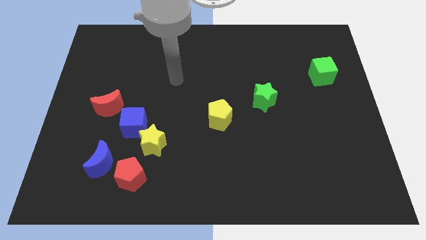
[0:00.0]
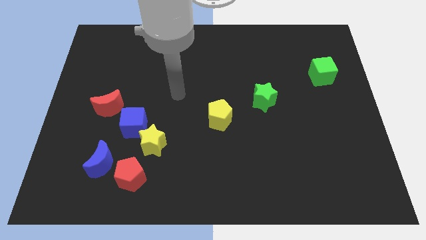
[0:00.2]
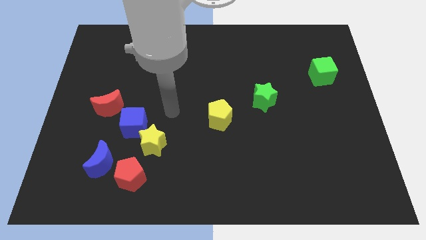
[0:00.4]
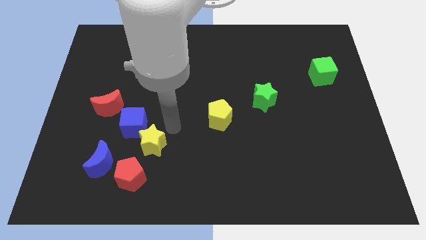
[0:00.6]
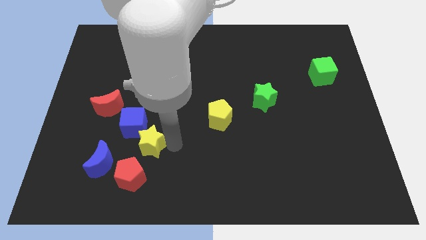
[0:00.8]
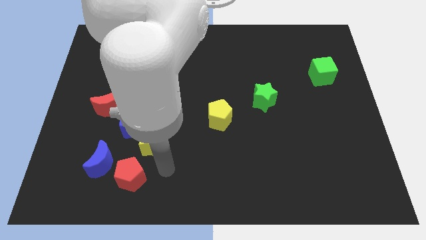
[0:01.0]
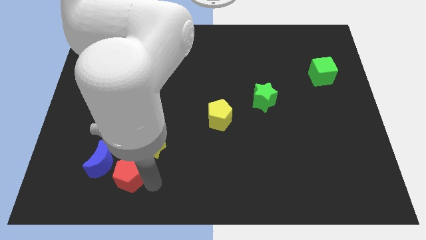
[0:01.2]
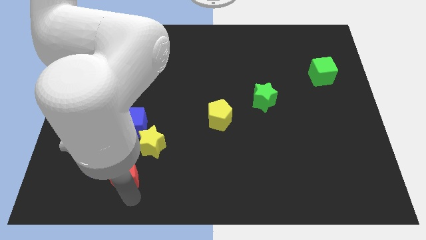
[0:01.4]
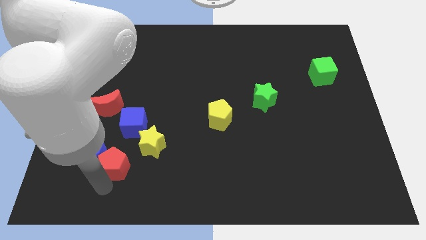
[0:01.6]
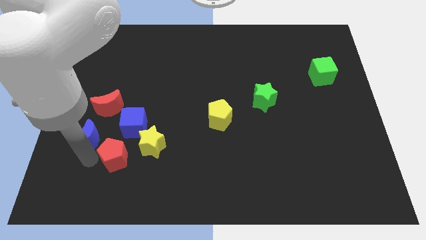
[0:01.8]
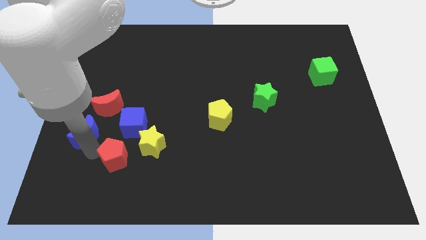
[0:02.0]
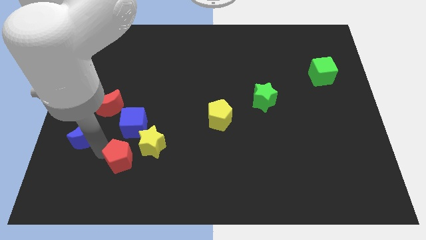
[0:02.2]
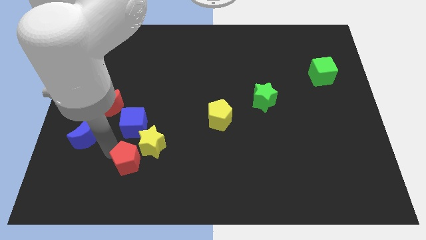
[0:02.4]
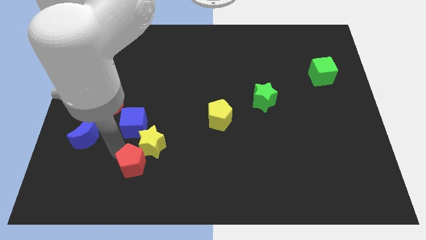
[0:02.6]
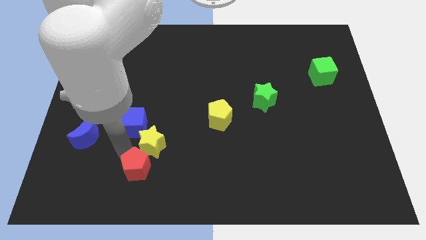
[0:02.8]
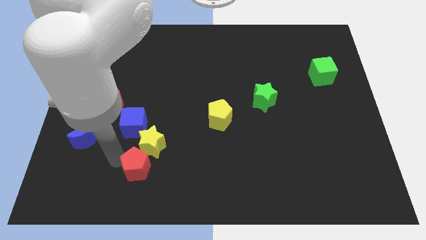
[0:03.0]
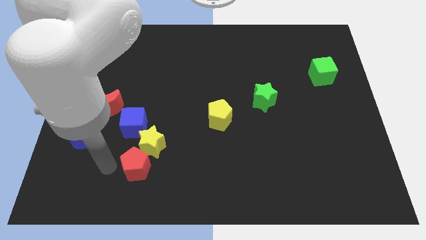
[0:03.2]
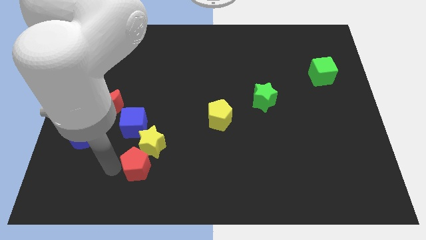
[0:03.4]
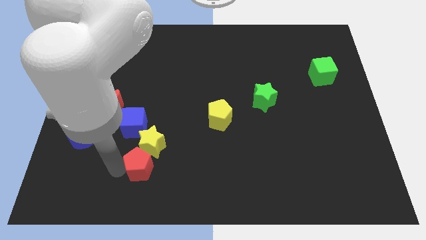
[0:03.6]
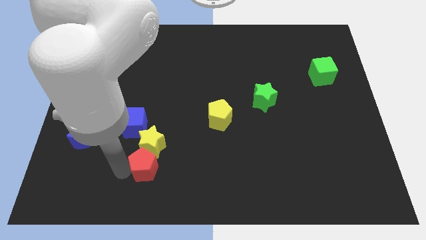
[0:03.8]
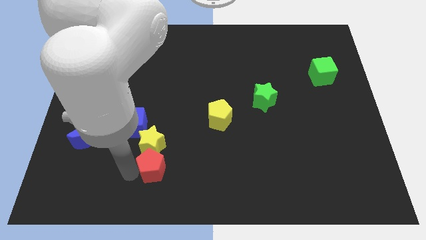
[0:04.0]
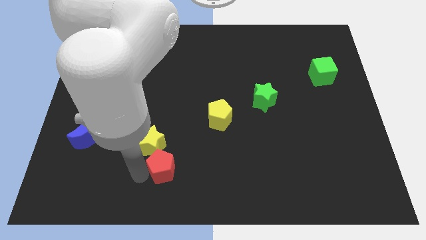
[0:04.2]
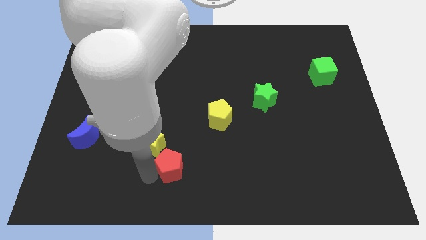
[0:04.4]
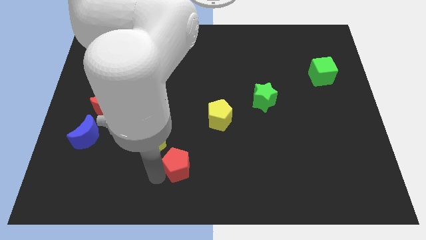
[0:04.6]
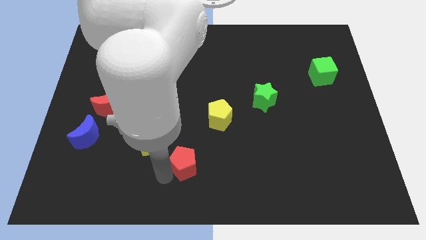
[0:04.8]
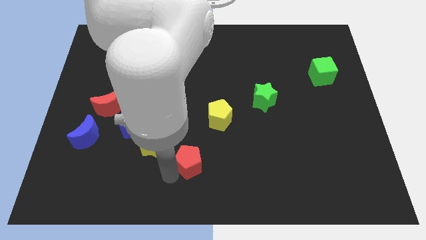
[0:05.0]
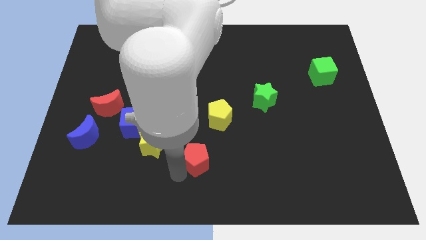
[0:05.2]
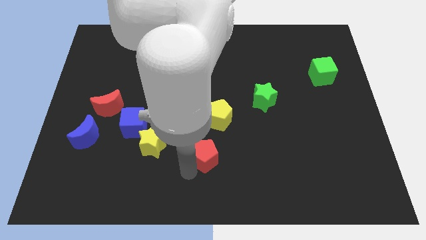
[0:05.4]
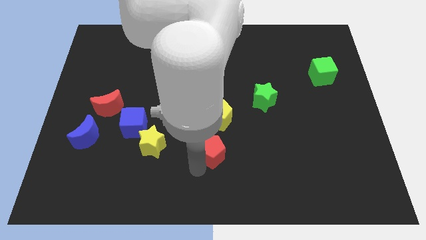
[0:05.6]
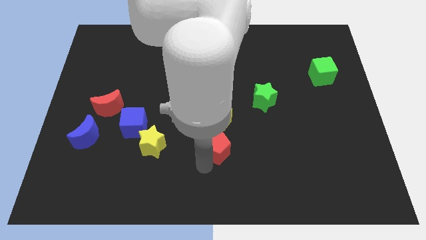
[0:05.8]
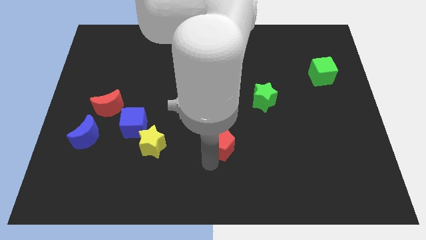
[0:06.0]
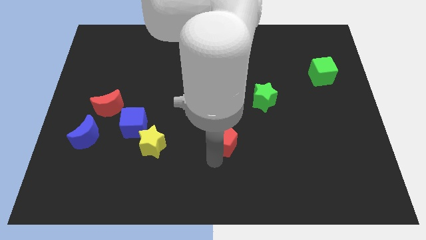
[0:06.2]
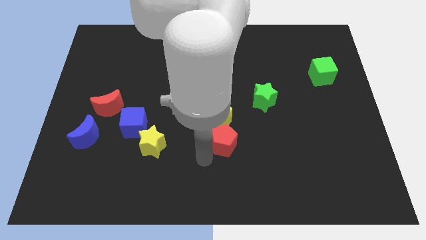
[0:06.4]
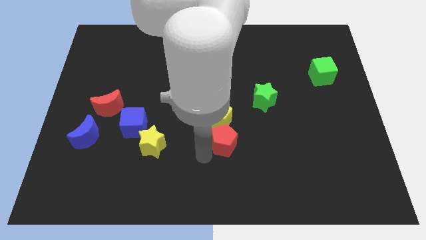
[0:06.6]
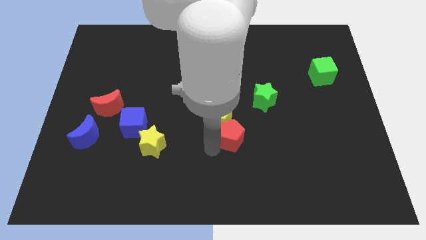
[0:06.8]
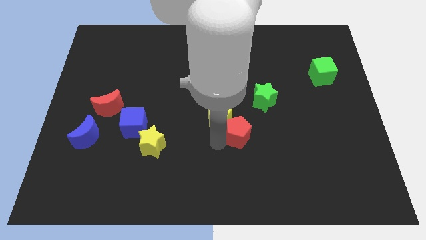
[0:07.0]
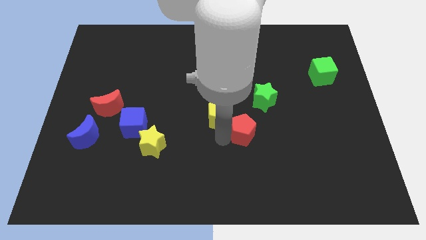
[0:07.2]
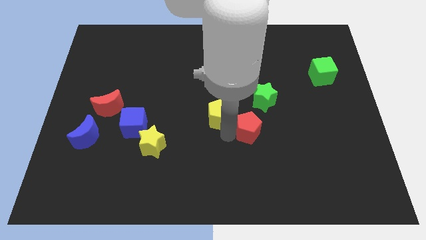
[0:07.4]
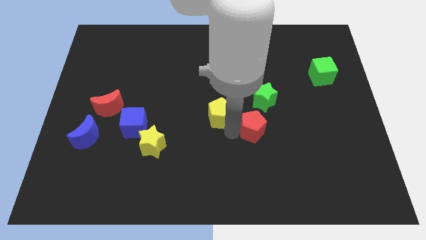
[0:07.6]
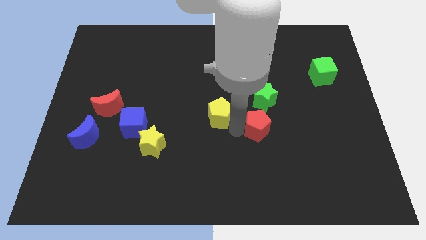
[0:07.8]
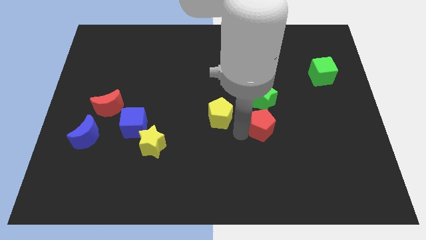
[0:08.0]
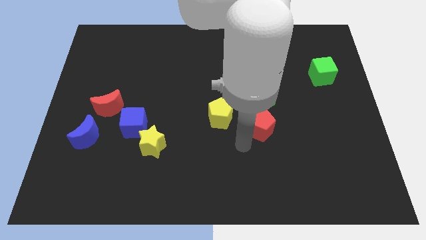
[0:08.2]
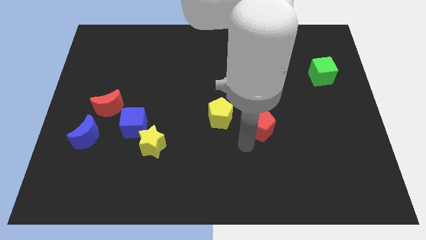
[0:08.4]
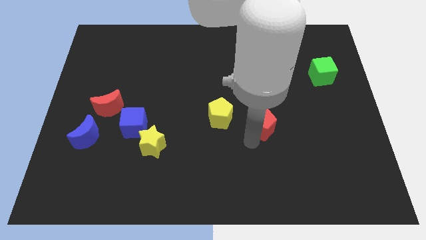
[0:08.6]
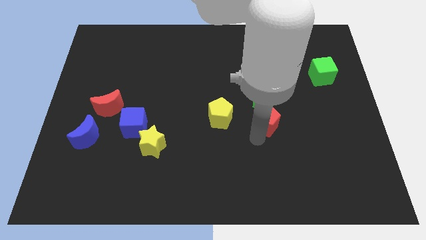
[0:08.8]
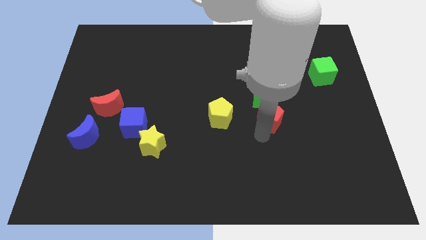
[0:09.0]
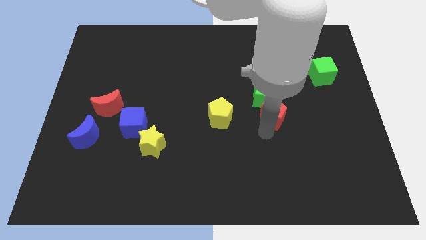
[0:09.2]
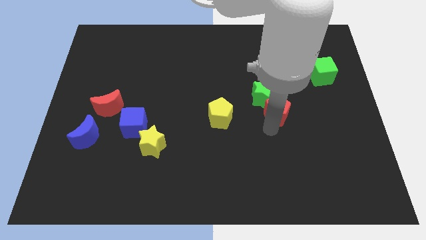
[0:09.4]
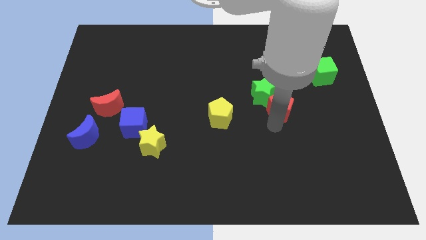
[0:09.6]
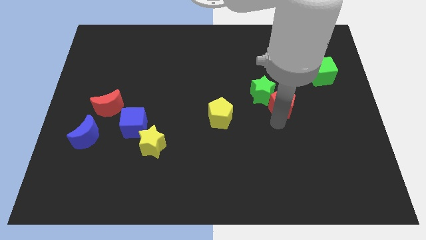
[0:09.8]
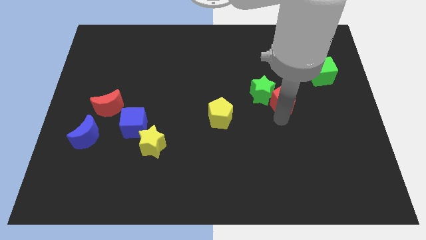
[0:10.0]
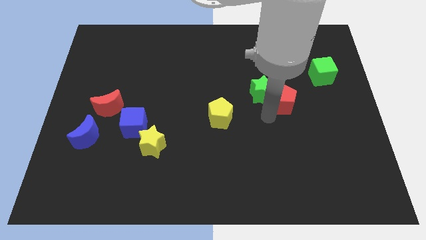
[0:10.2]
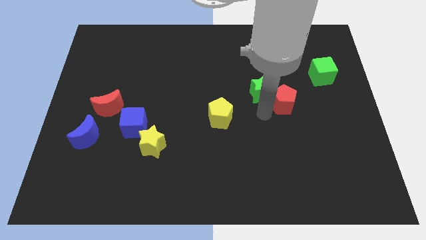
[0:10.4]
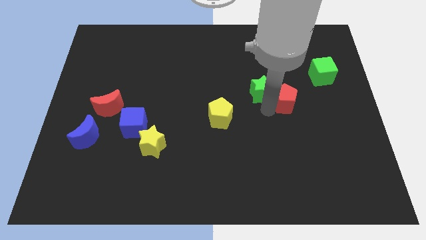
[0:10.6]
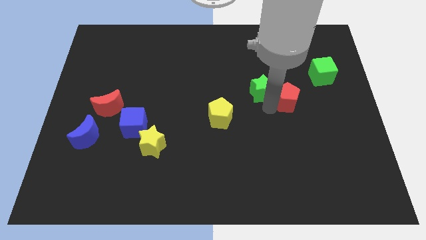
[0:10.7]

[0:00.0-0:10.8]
slide the red pentagon to the bottom left of the green cube
